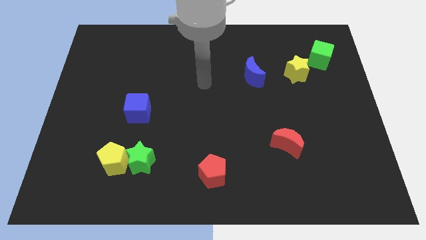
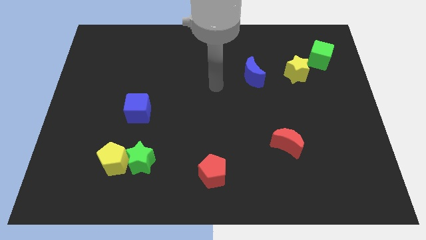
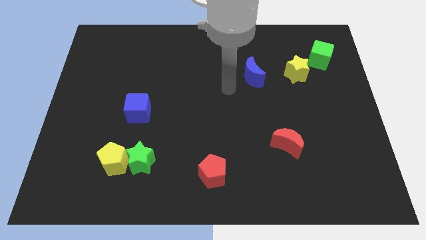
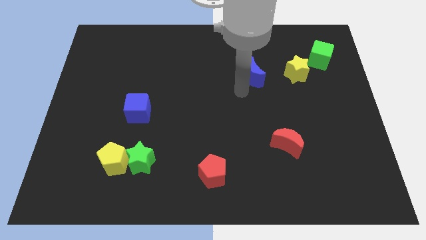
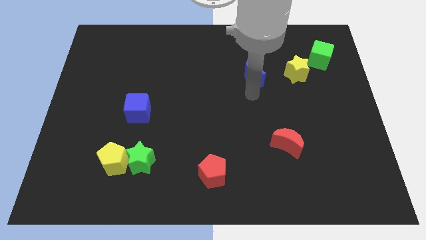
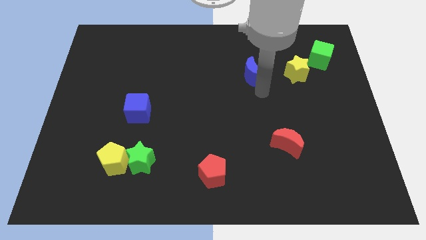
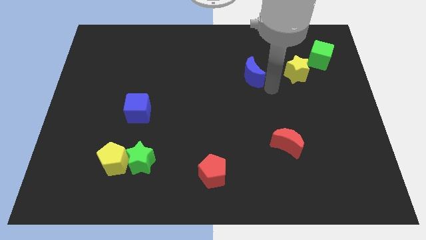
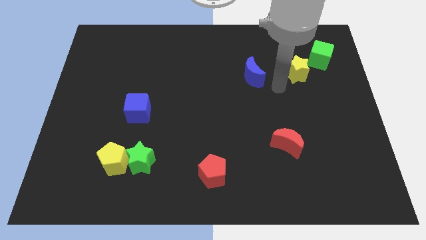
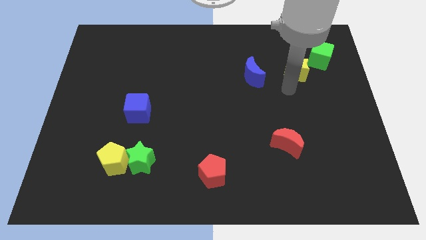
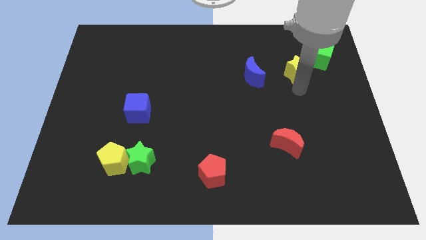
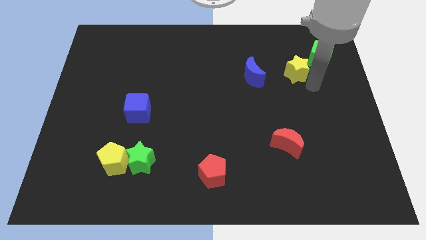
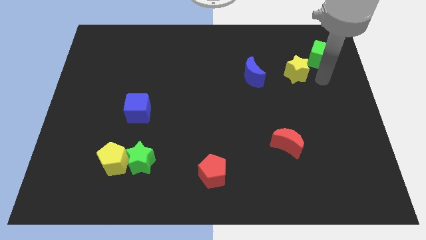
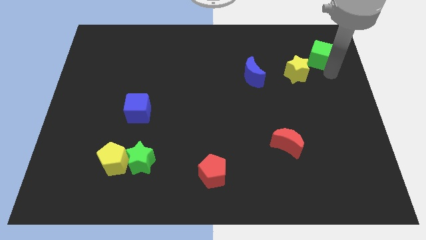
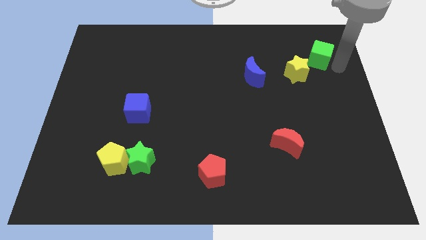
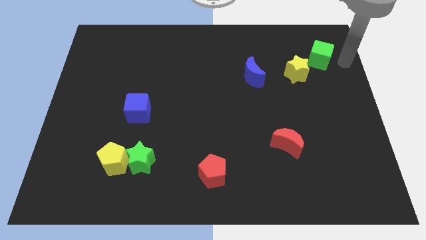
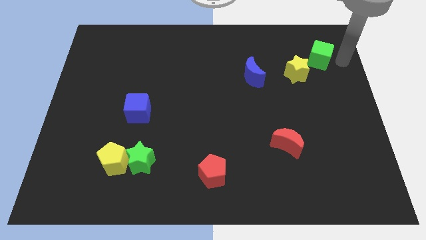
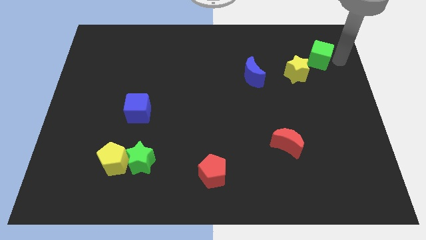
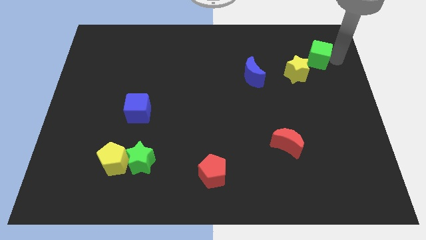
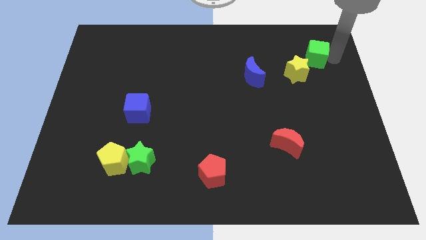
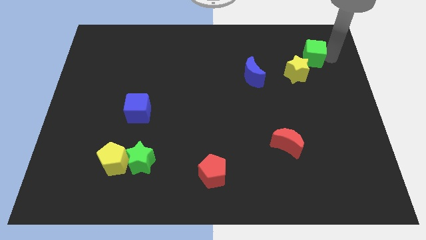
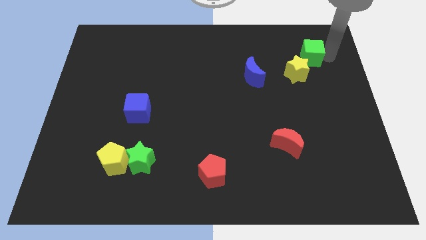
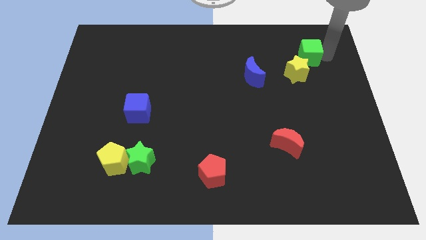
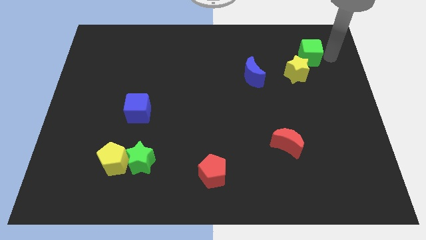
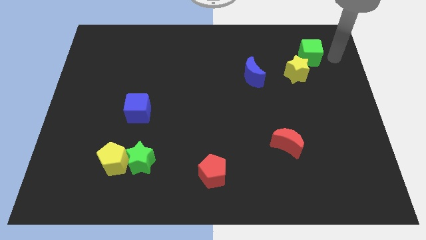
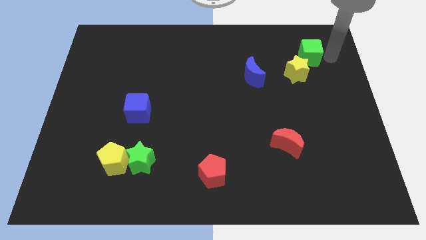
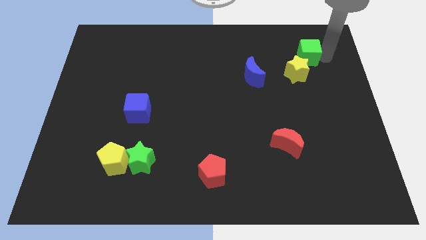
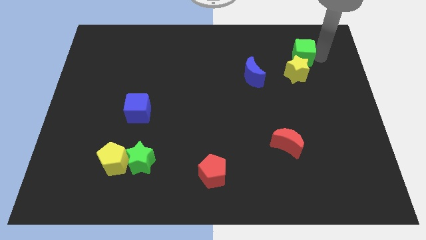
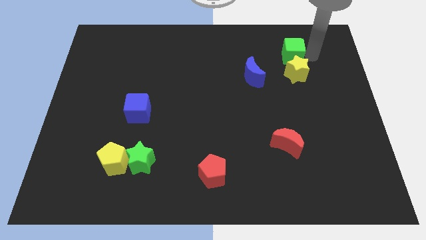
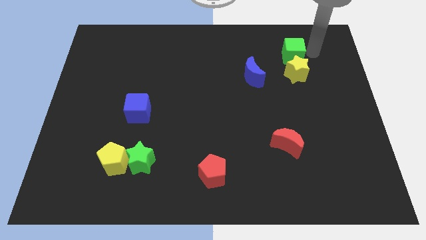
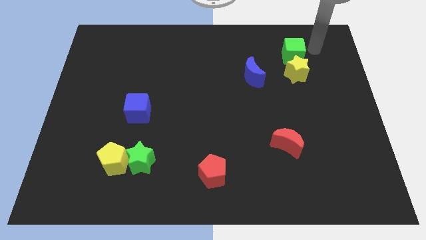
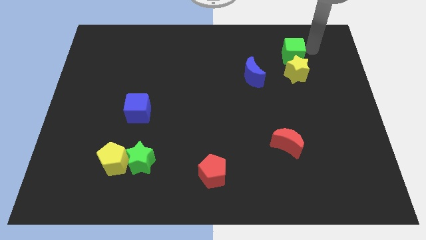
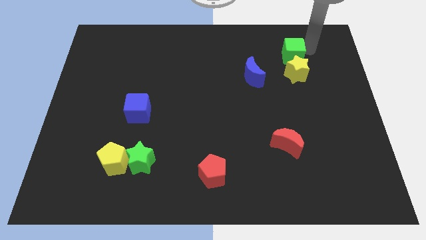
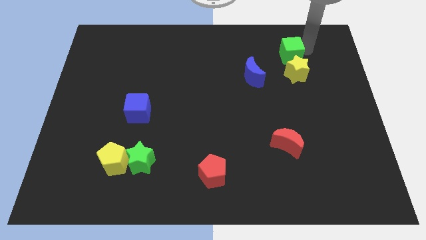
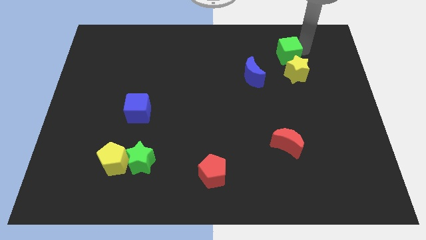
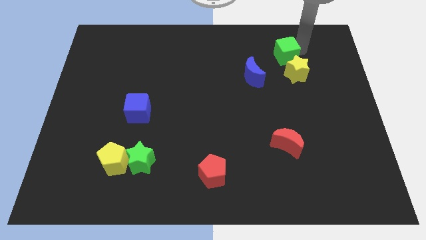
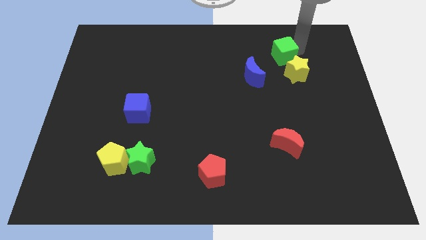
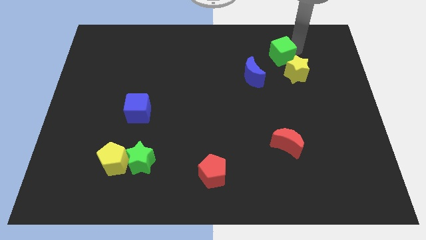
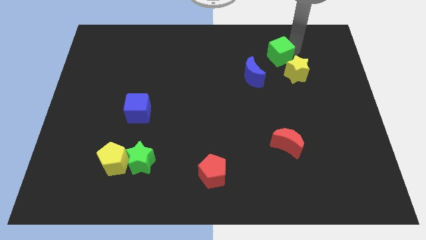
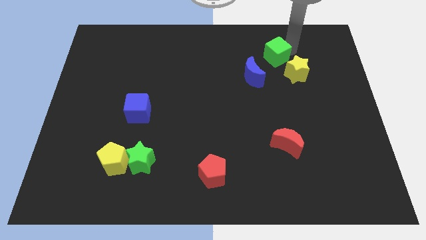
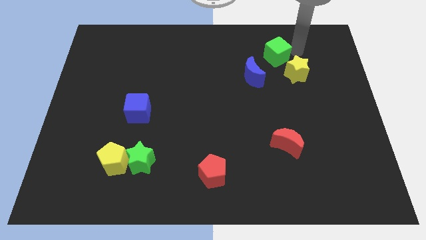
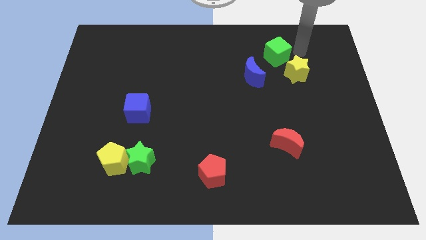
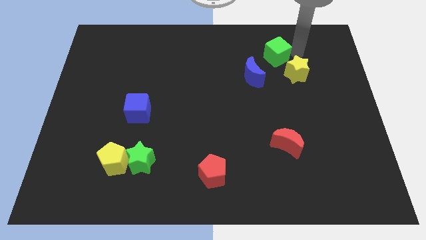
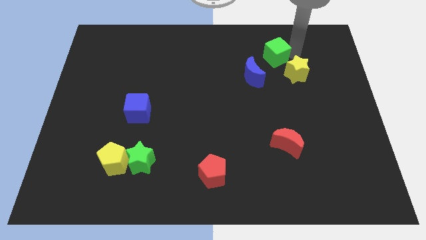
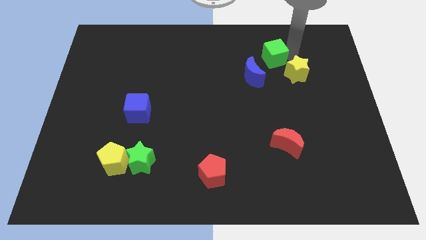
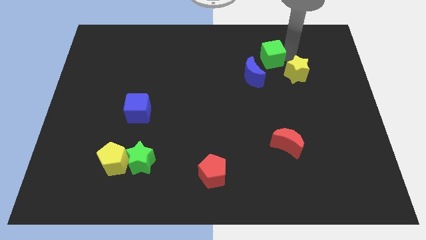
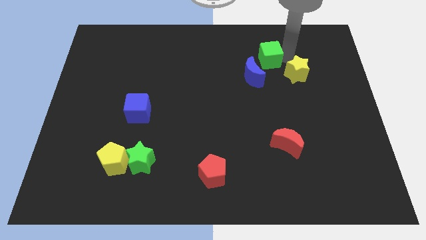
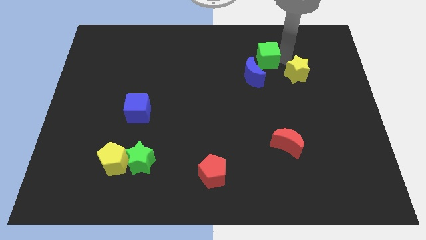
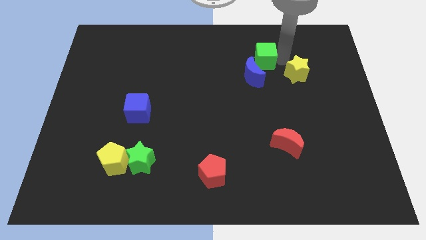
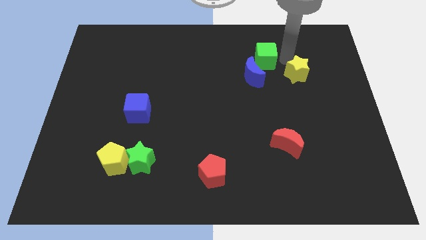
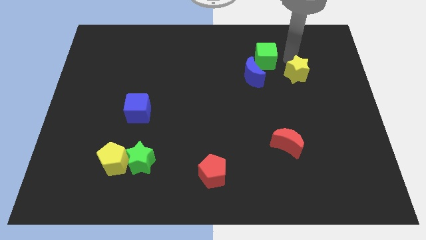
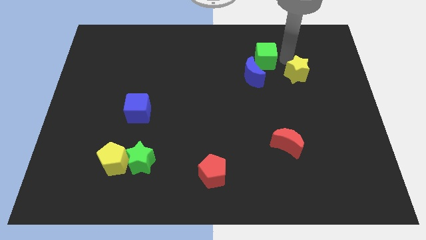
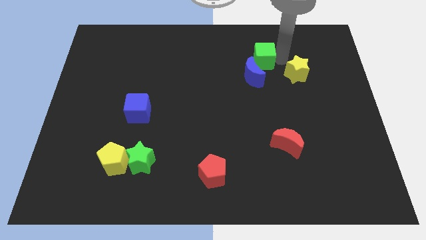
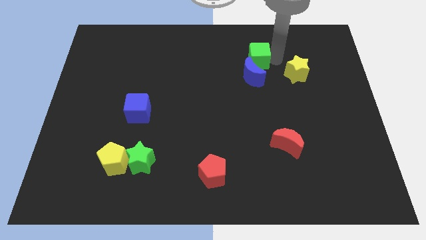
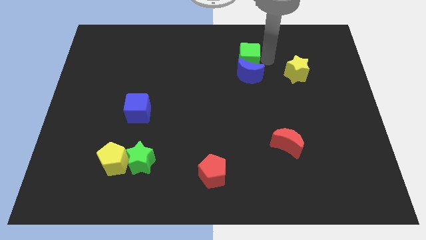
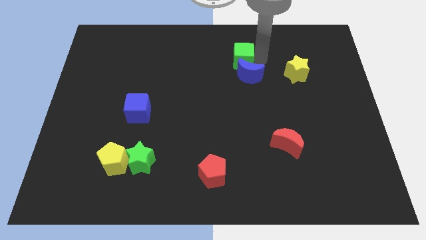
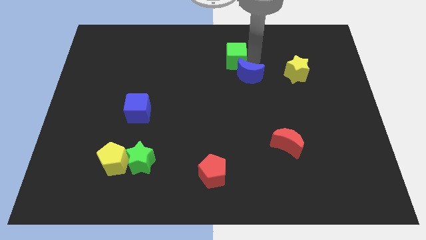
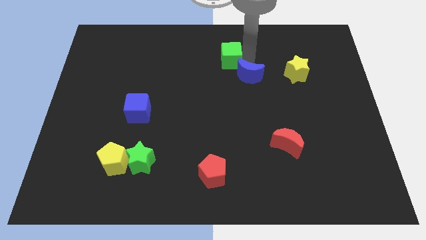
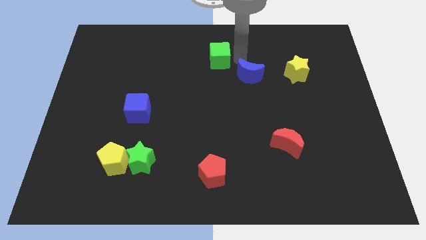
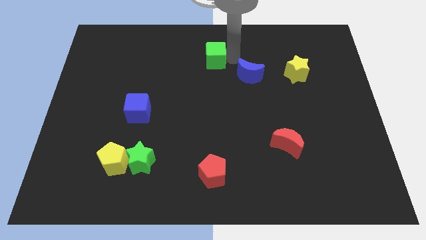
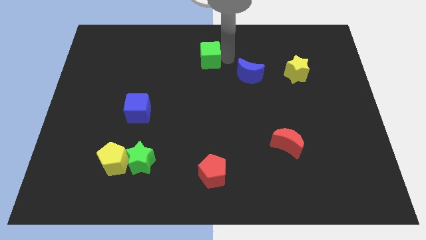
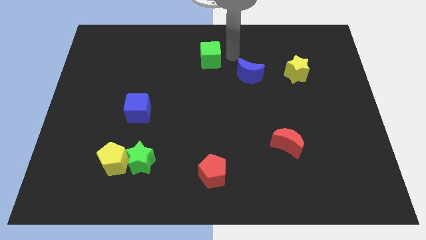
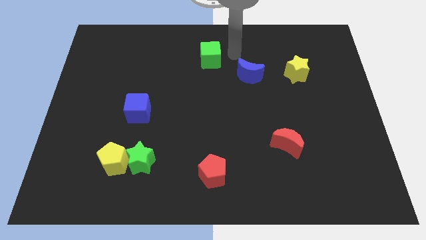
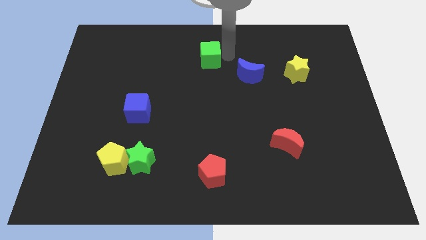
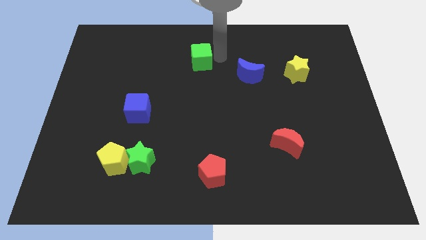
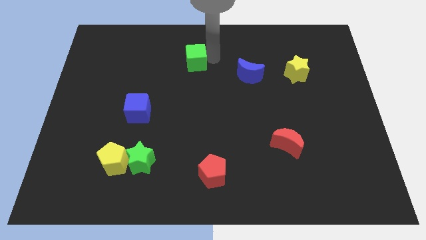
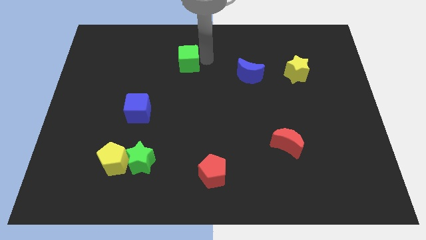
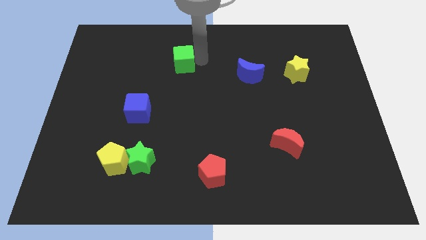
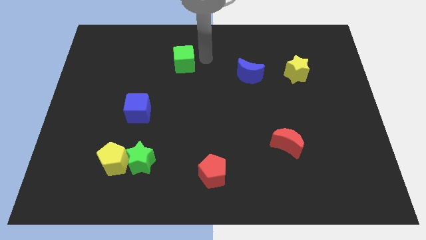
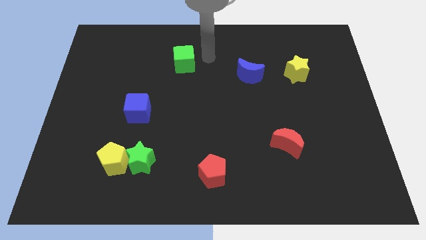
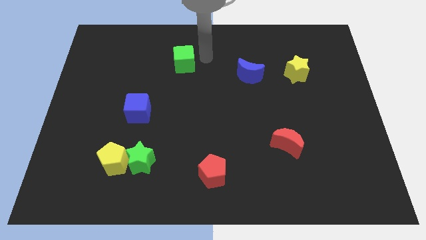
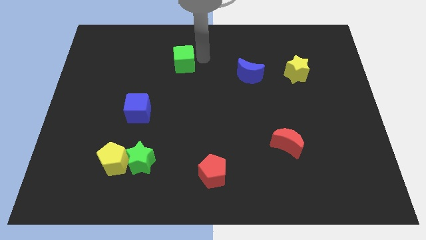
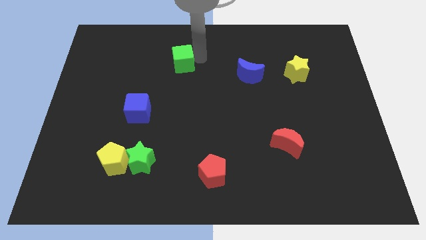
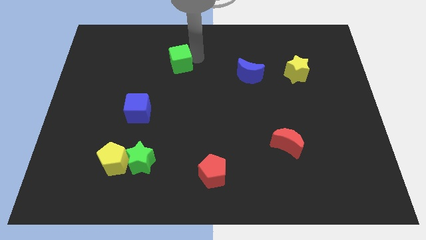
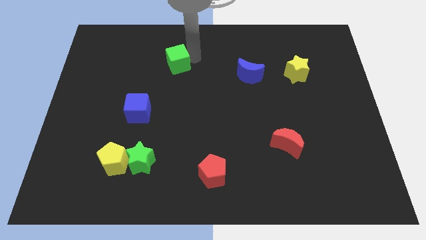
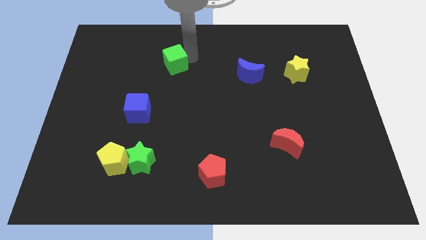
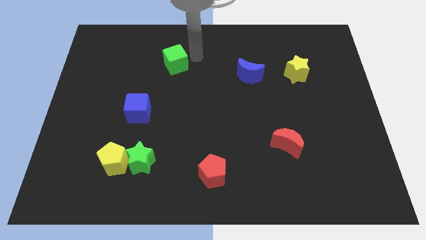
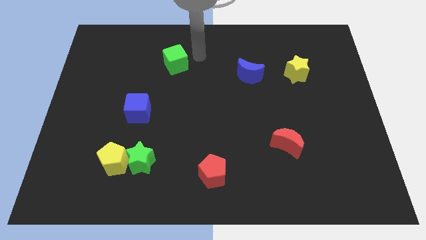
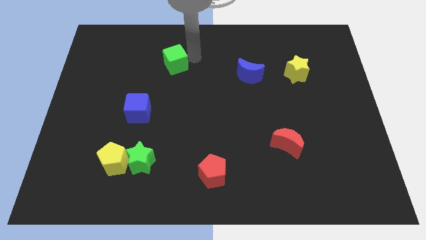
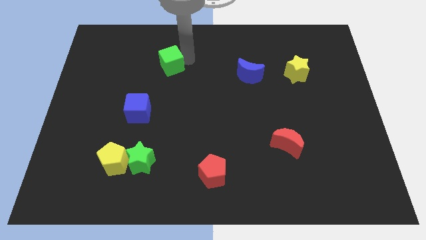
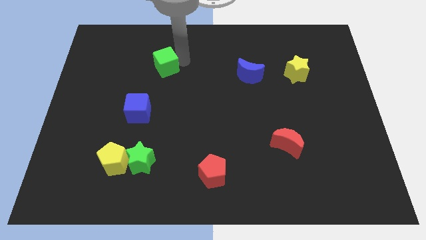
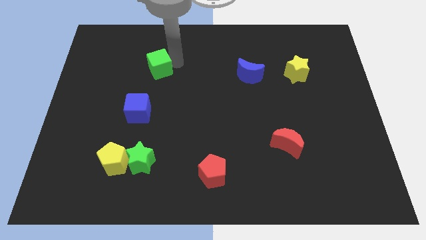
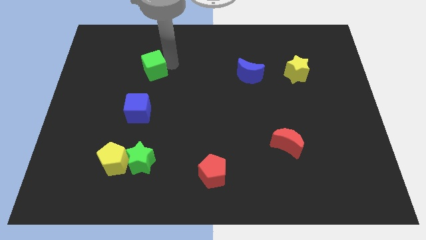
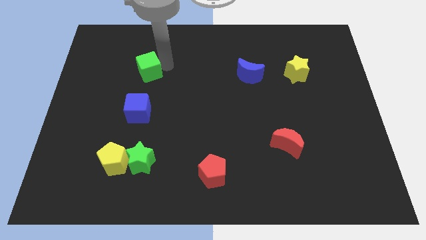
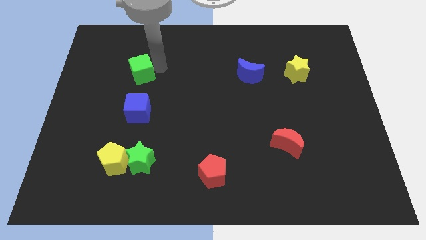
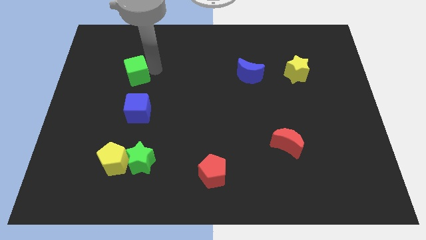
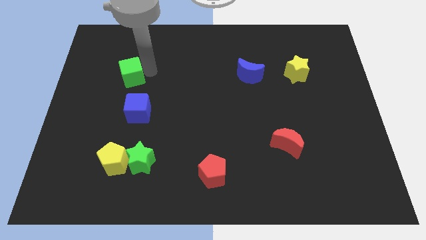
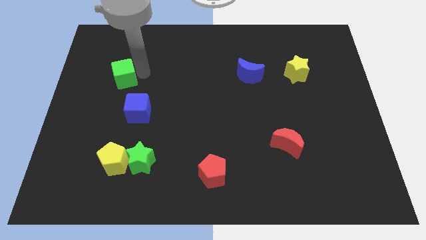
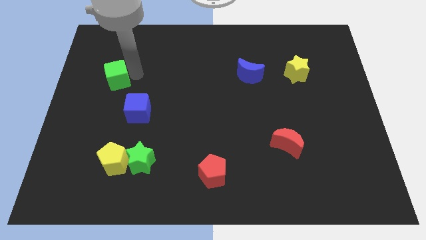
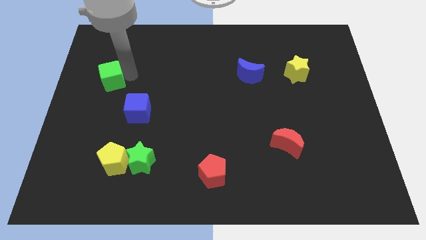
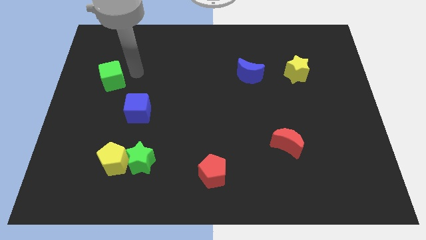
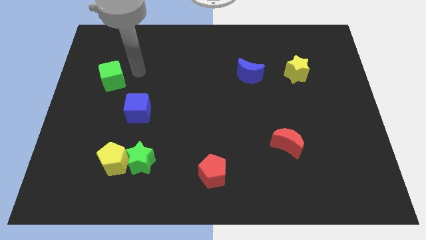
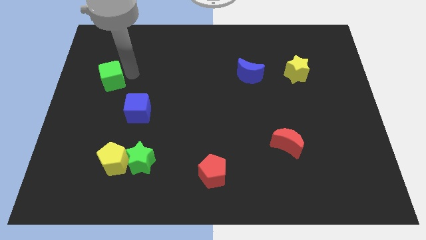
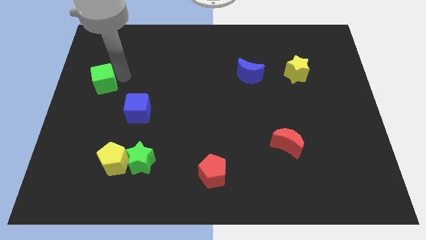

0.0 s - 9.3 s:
slide the green cube to the left side
